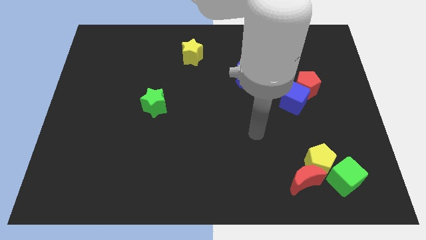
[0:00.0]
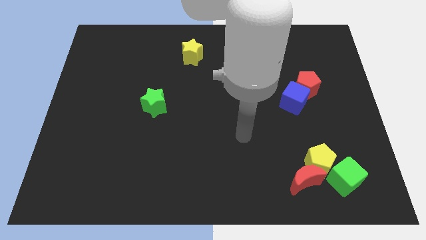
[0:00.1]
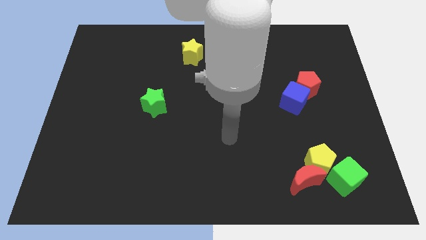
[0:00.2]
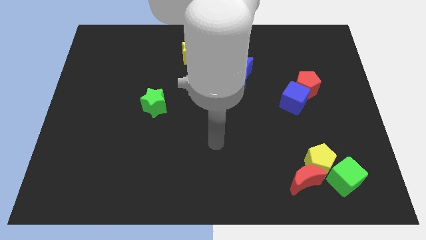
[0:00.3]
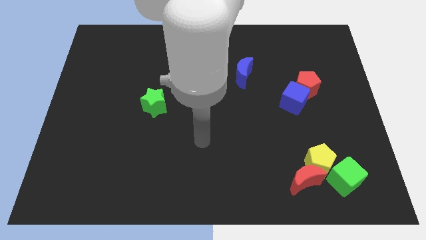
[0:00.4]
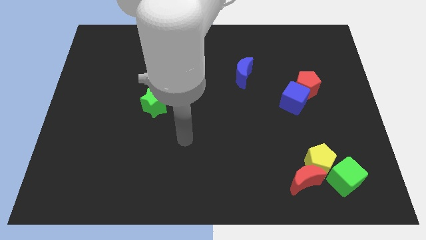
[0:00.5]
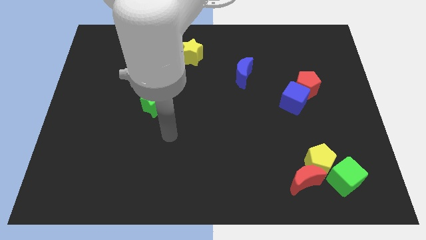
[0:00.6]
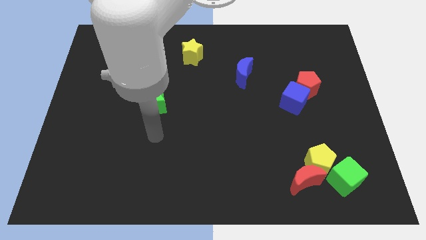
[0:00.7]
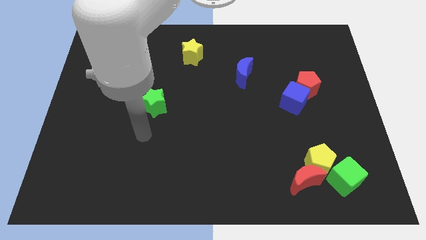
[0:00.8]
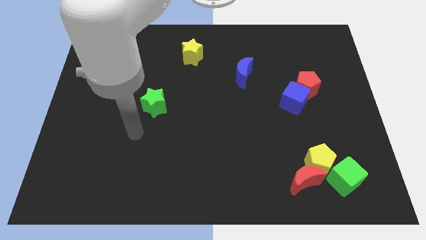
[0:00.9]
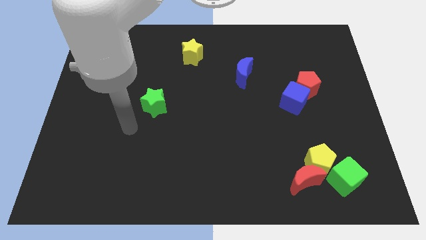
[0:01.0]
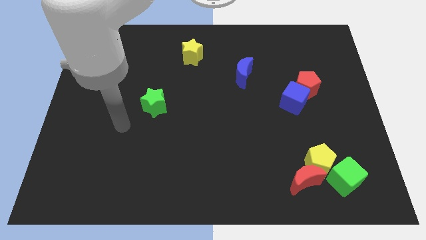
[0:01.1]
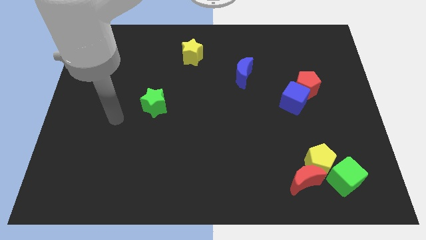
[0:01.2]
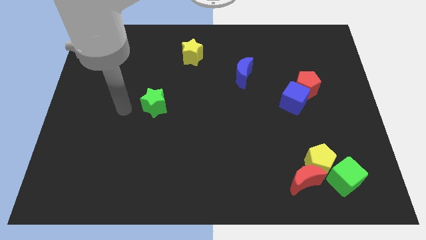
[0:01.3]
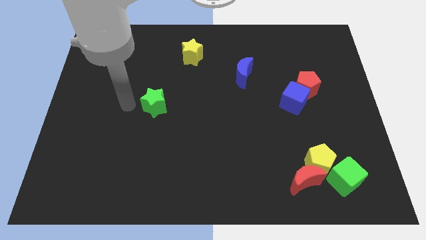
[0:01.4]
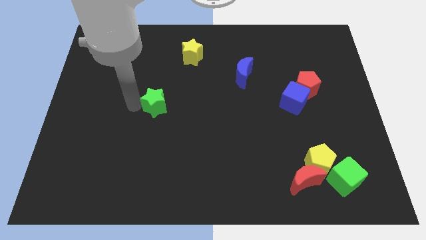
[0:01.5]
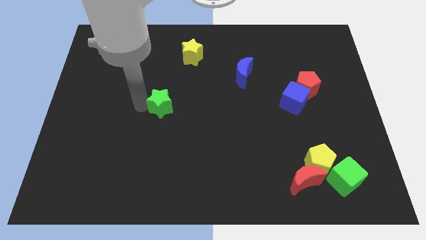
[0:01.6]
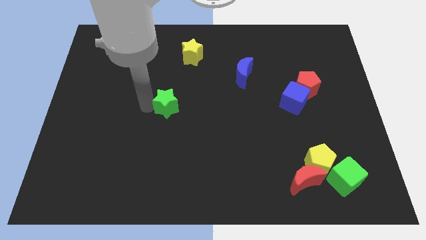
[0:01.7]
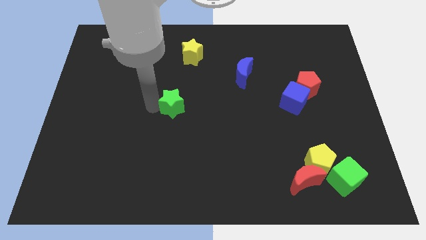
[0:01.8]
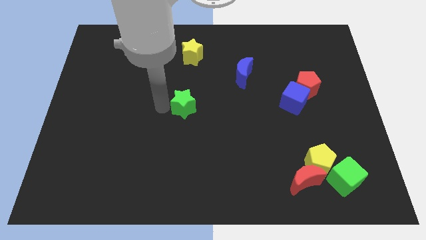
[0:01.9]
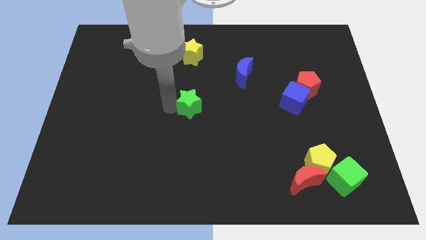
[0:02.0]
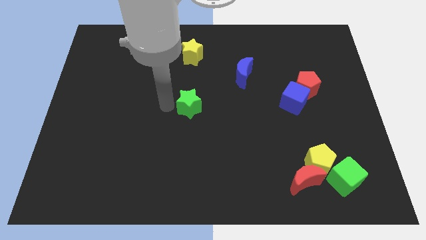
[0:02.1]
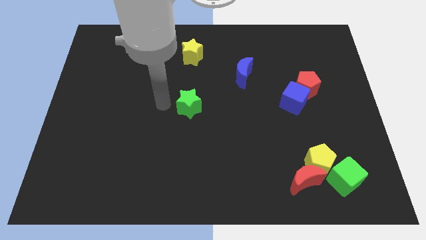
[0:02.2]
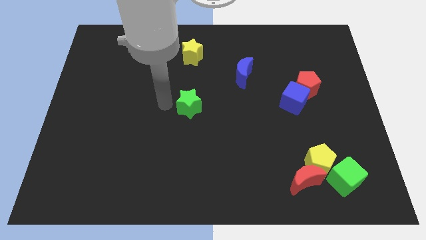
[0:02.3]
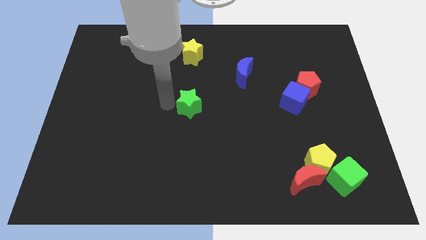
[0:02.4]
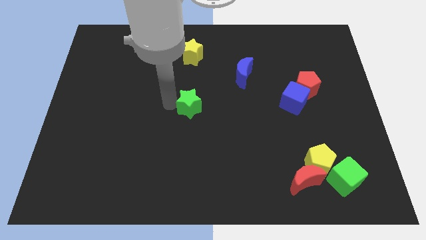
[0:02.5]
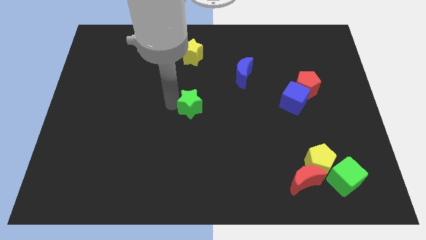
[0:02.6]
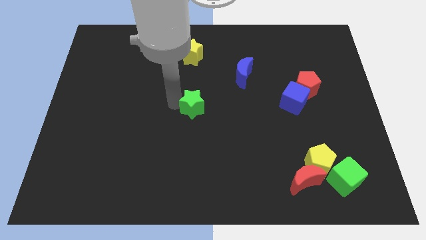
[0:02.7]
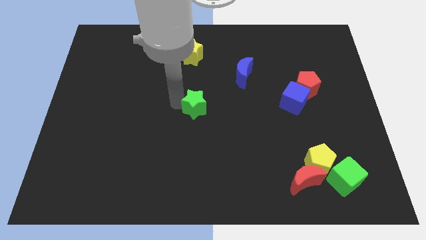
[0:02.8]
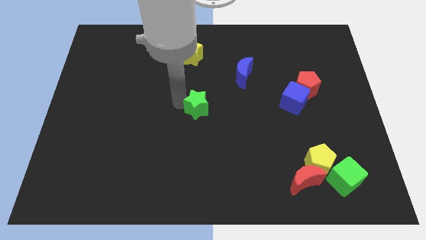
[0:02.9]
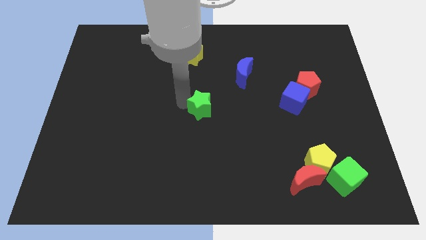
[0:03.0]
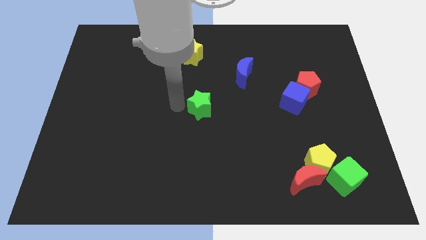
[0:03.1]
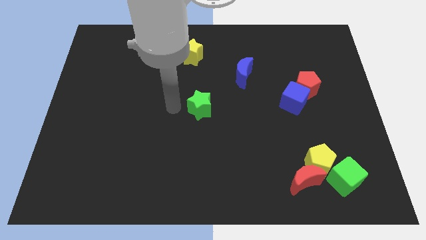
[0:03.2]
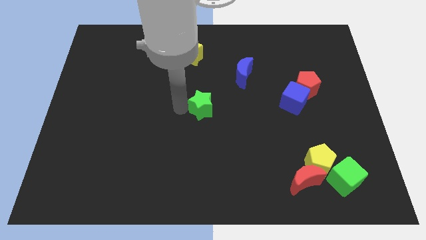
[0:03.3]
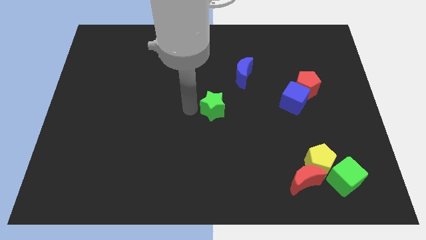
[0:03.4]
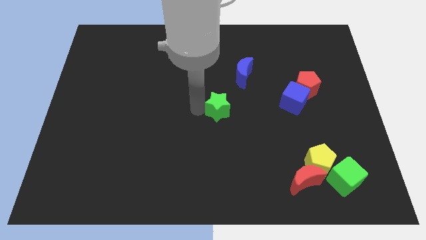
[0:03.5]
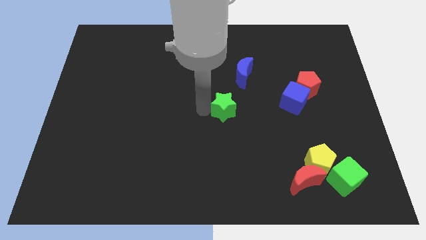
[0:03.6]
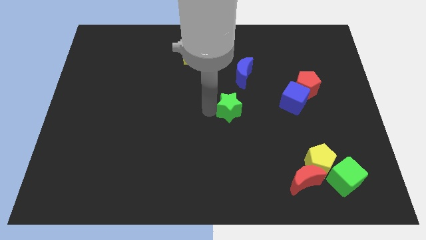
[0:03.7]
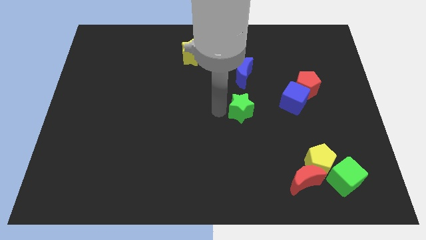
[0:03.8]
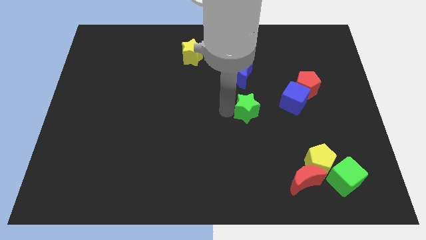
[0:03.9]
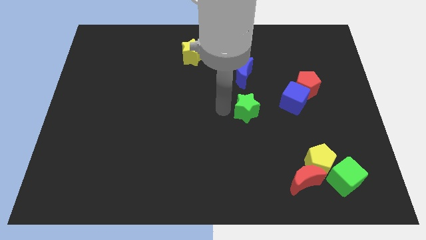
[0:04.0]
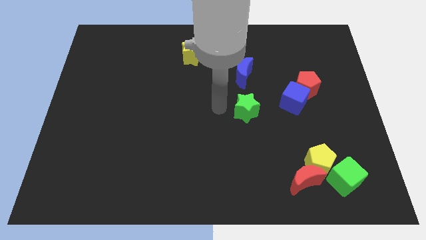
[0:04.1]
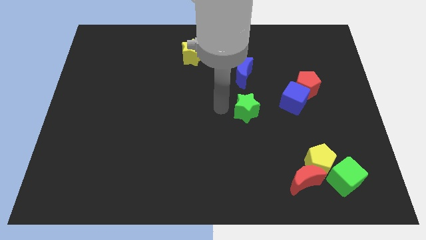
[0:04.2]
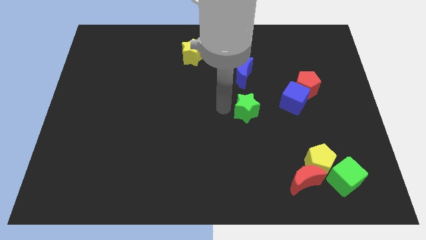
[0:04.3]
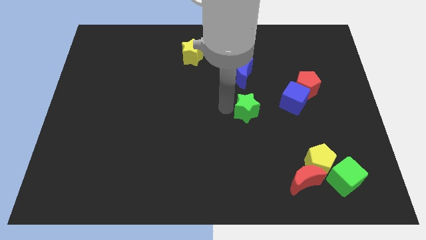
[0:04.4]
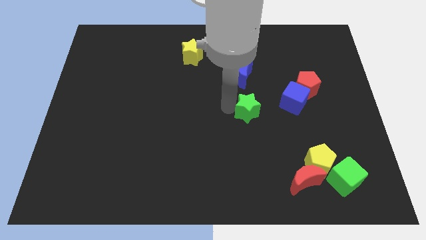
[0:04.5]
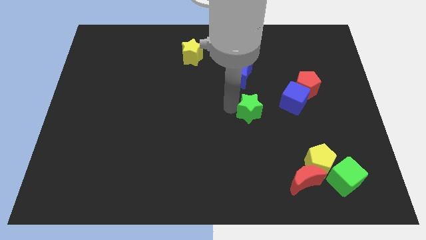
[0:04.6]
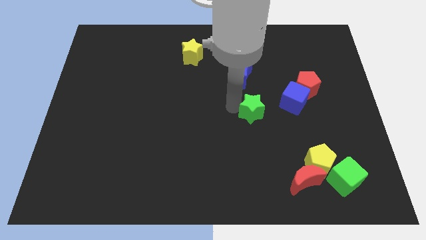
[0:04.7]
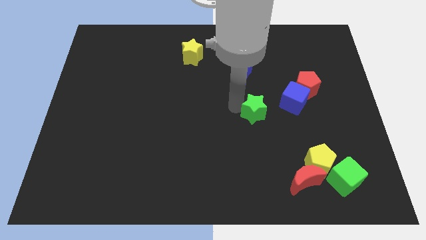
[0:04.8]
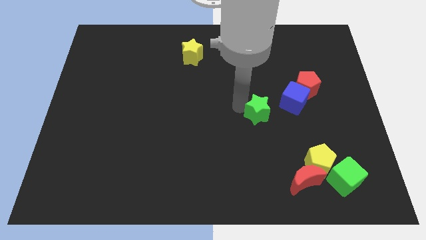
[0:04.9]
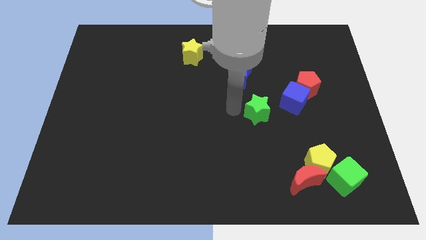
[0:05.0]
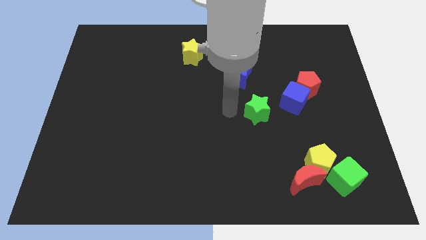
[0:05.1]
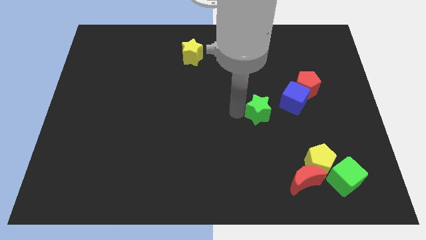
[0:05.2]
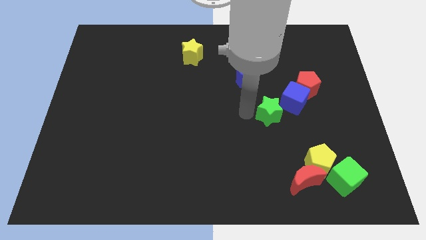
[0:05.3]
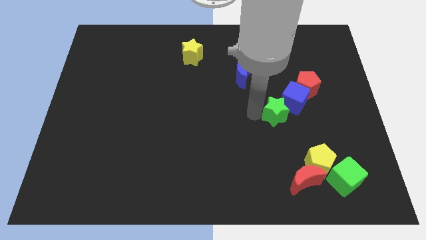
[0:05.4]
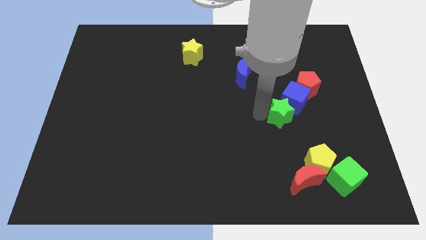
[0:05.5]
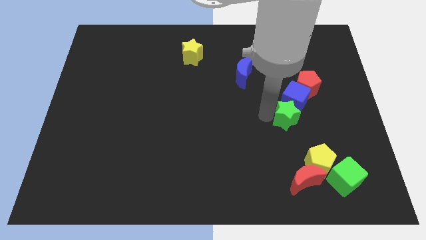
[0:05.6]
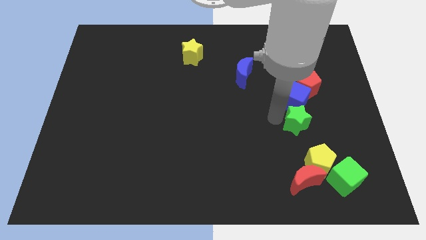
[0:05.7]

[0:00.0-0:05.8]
push the green star diagonally down and to the right of the blue cube

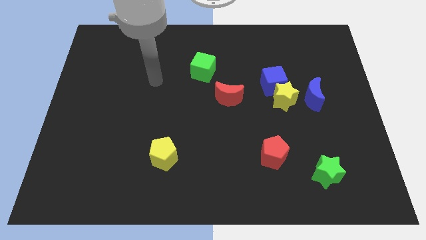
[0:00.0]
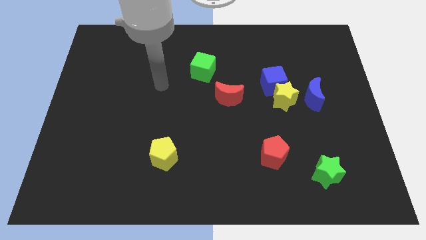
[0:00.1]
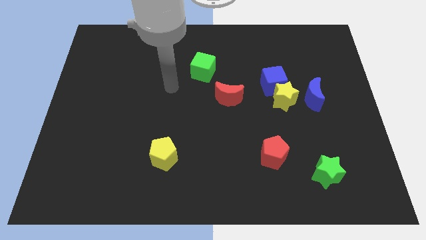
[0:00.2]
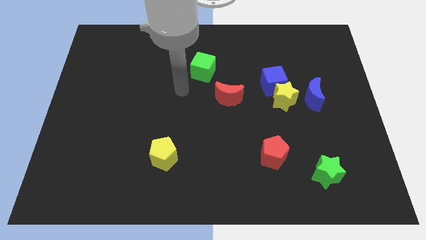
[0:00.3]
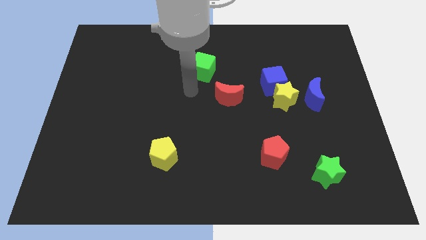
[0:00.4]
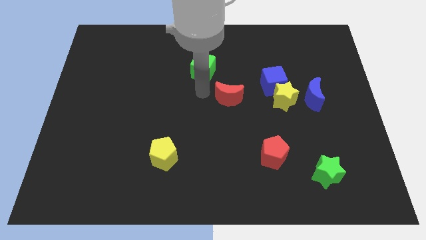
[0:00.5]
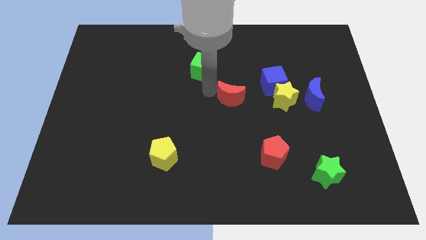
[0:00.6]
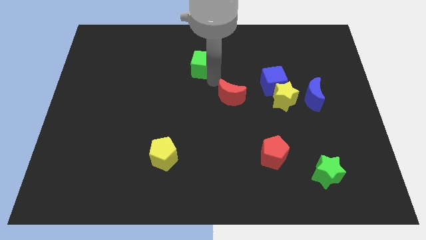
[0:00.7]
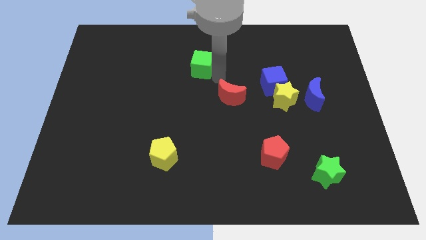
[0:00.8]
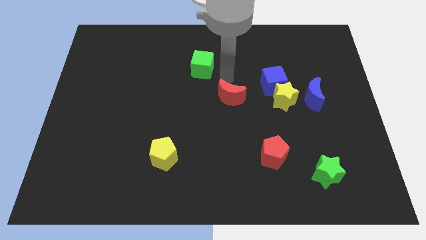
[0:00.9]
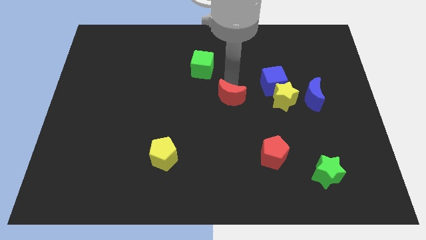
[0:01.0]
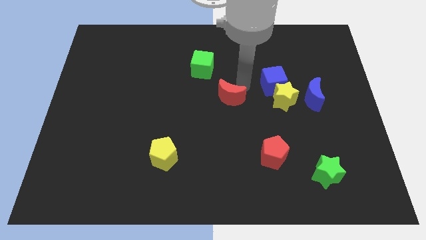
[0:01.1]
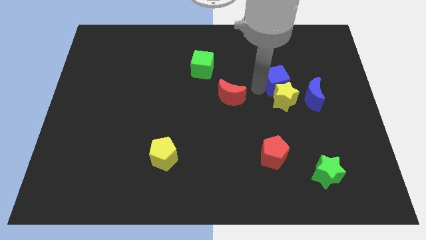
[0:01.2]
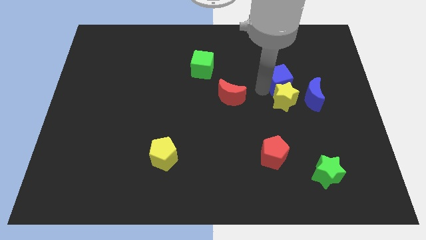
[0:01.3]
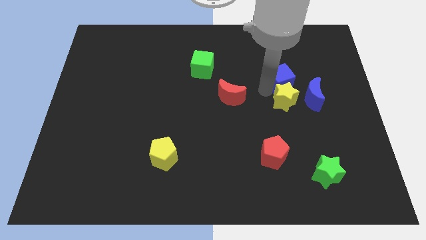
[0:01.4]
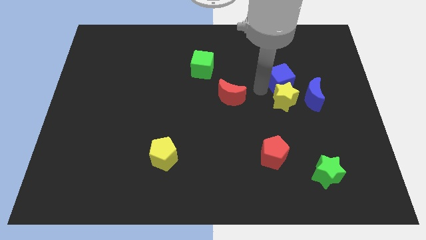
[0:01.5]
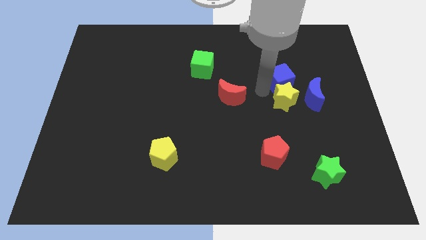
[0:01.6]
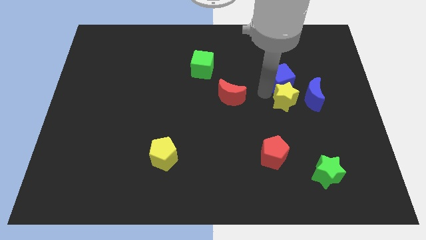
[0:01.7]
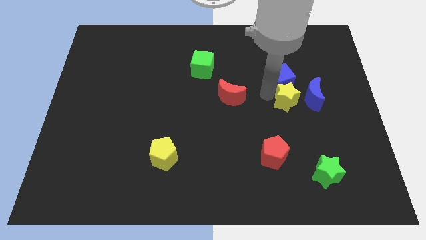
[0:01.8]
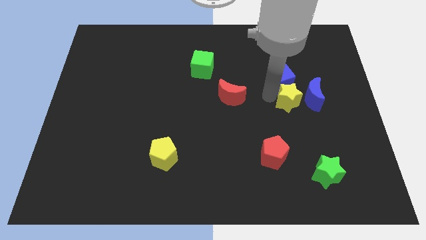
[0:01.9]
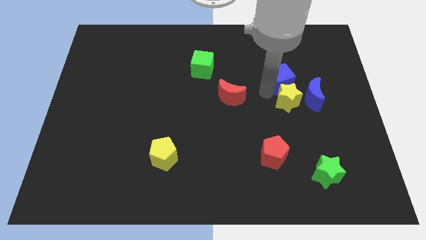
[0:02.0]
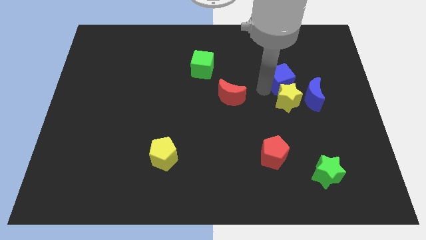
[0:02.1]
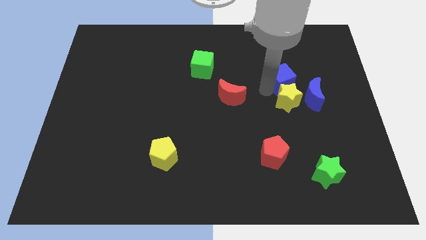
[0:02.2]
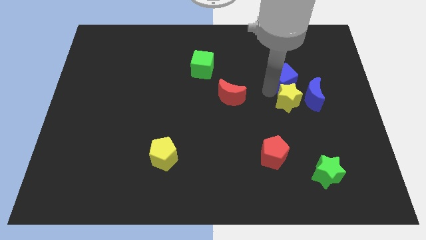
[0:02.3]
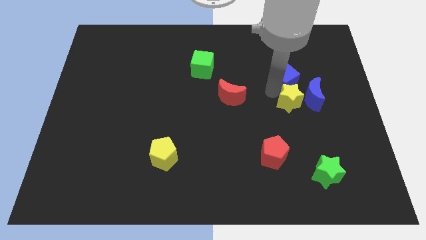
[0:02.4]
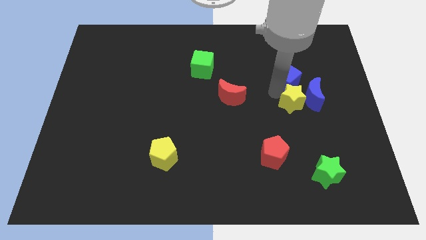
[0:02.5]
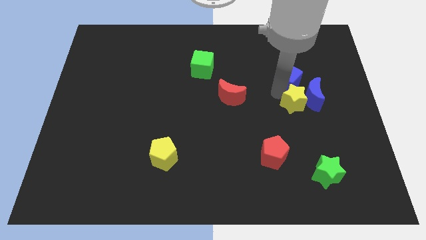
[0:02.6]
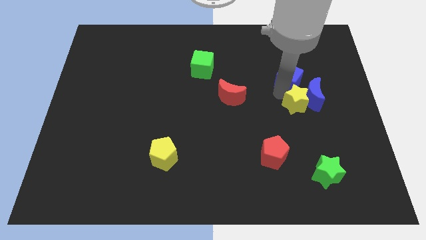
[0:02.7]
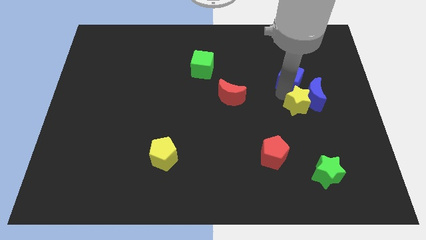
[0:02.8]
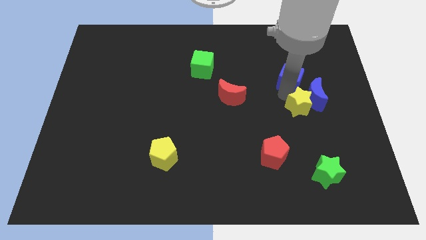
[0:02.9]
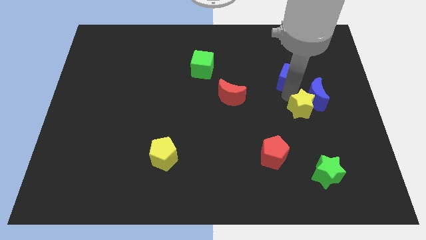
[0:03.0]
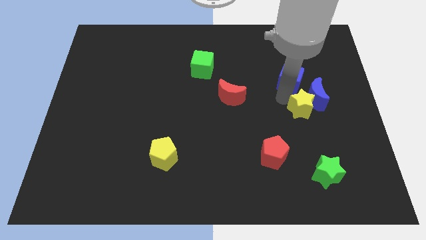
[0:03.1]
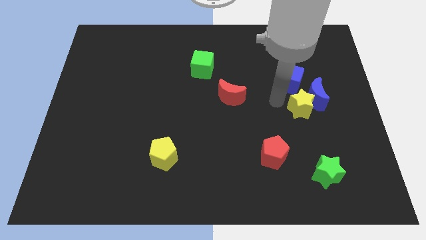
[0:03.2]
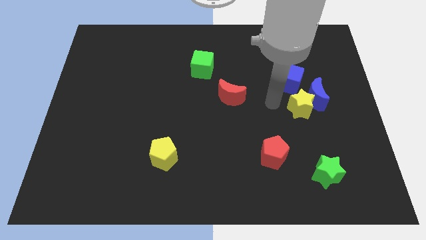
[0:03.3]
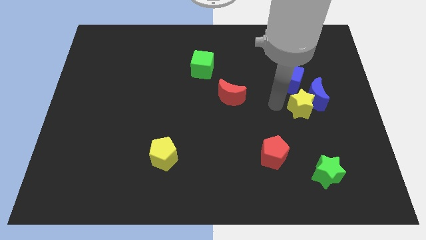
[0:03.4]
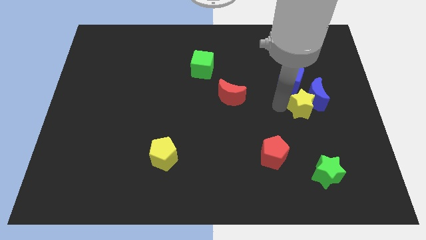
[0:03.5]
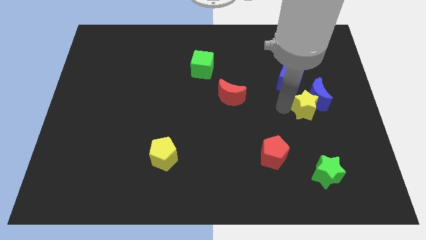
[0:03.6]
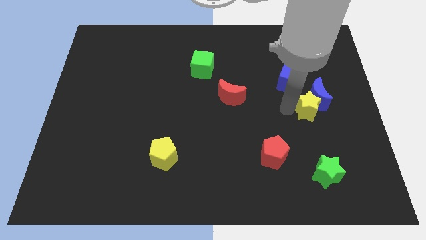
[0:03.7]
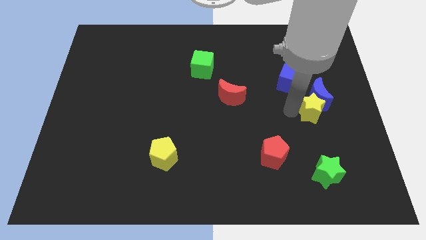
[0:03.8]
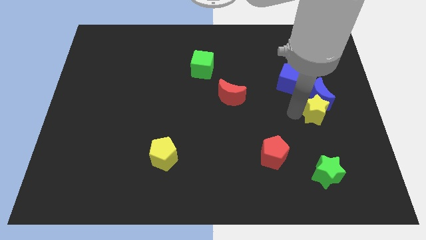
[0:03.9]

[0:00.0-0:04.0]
move the yellow star to the bottom right of the blue moon
